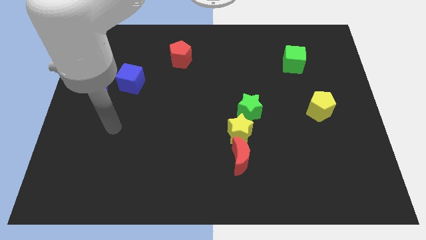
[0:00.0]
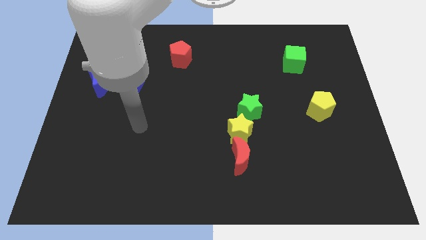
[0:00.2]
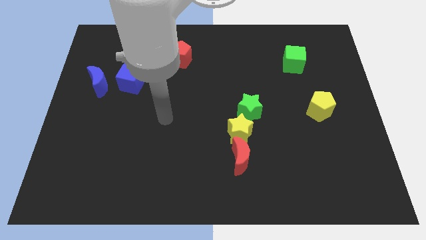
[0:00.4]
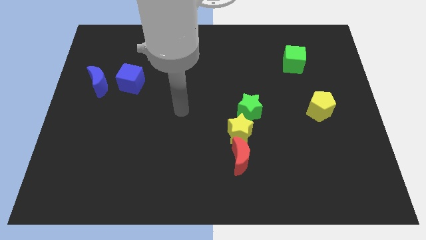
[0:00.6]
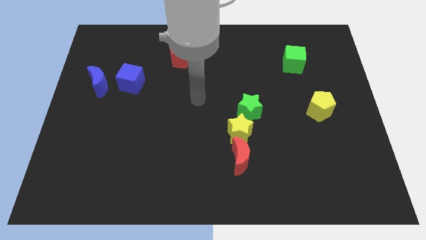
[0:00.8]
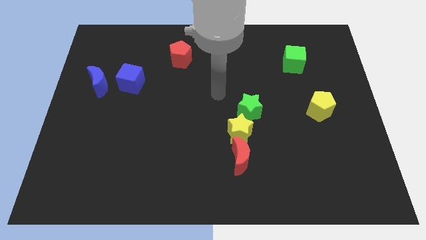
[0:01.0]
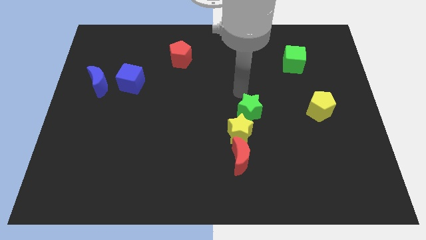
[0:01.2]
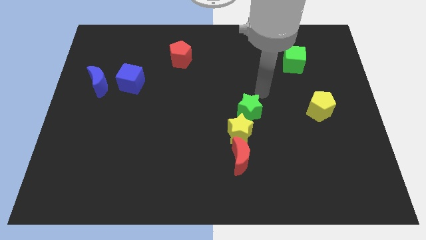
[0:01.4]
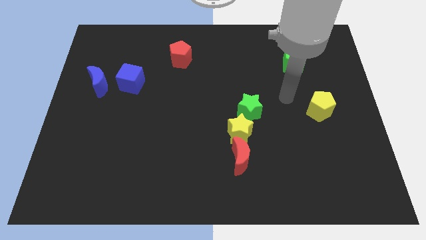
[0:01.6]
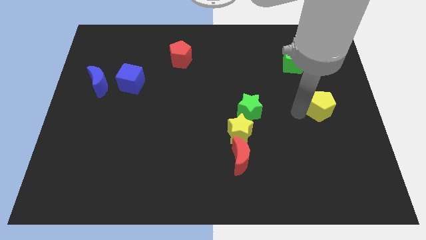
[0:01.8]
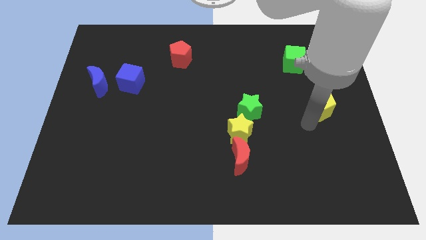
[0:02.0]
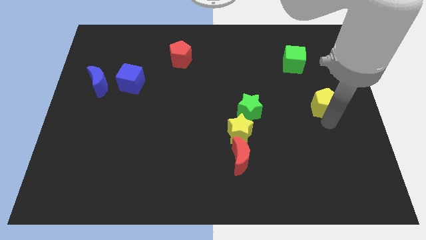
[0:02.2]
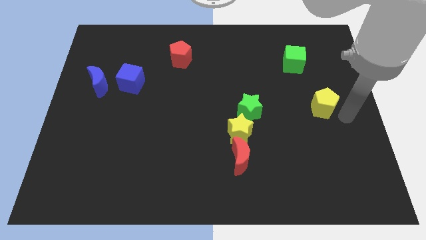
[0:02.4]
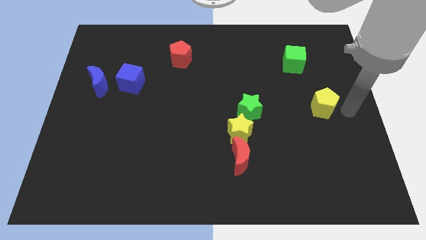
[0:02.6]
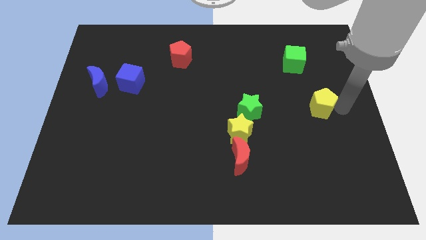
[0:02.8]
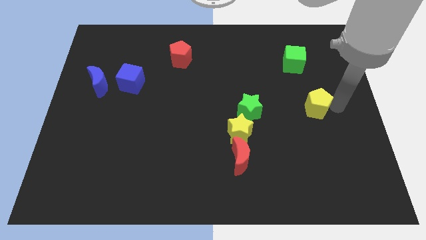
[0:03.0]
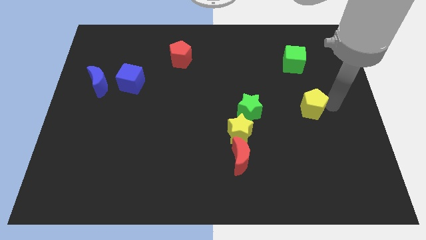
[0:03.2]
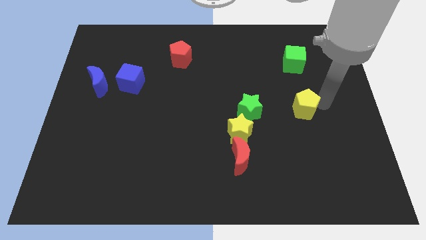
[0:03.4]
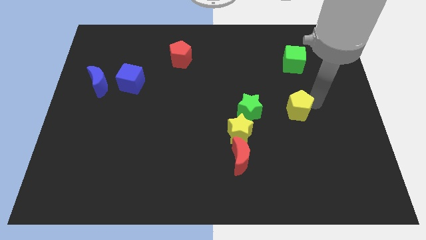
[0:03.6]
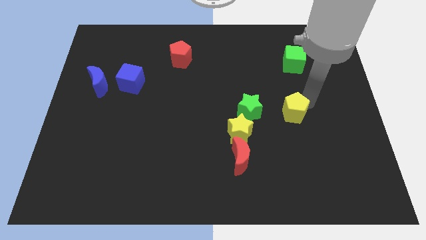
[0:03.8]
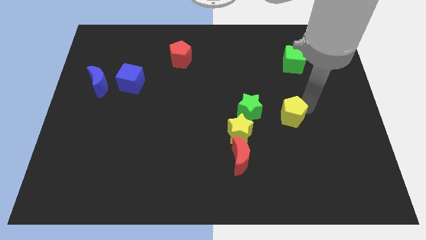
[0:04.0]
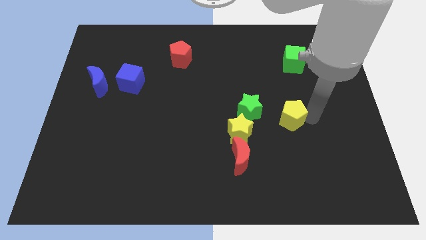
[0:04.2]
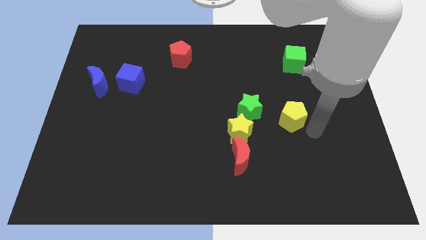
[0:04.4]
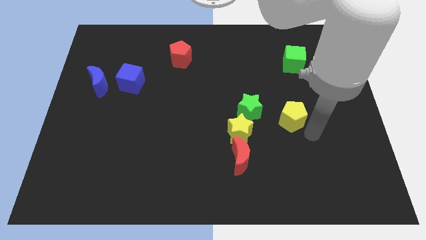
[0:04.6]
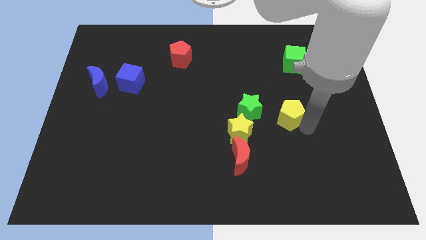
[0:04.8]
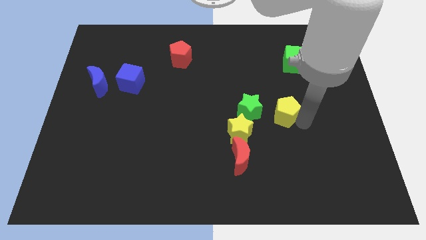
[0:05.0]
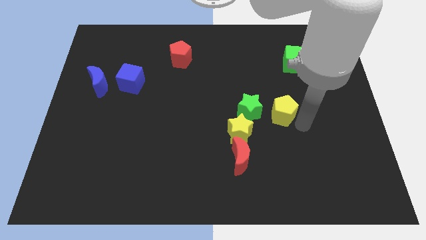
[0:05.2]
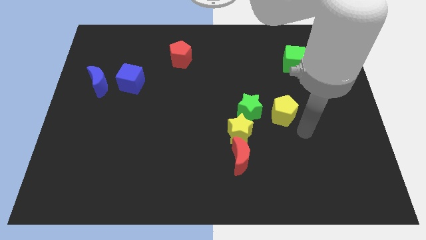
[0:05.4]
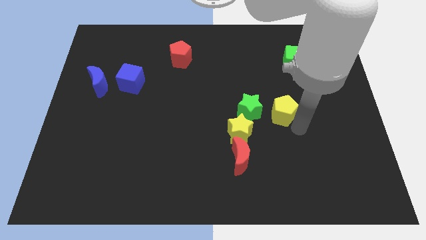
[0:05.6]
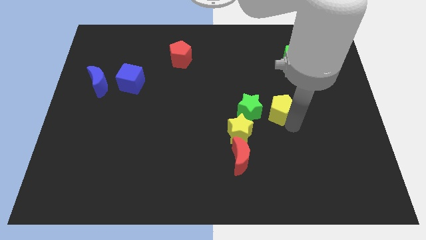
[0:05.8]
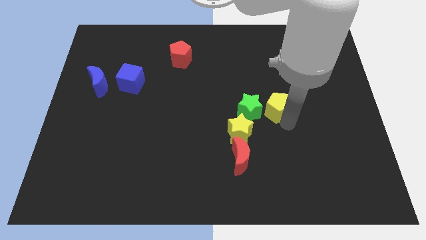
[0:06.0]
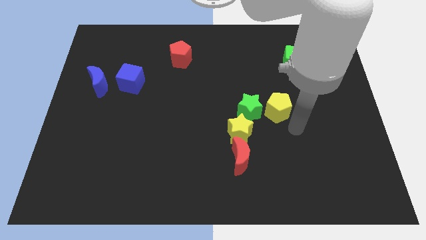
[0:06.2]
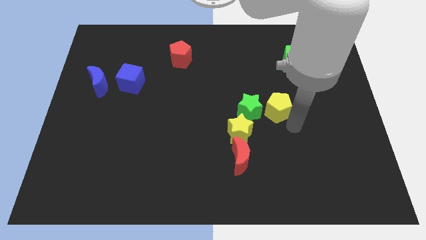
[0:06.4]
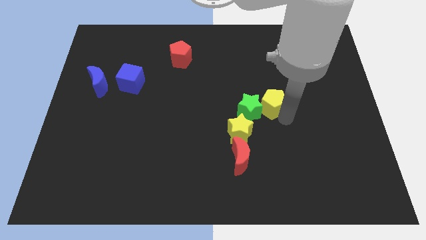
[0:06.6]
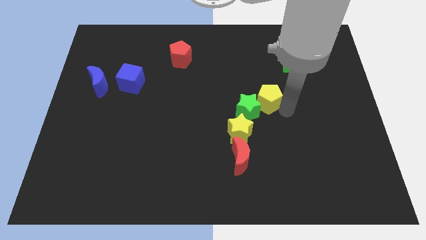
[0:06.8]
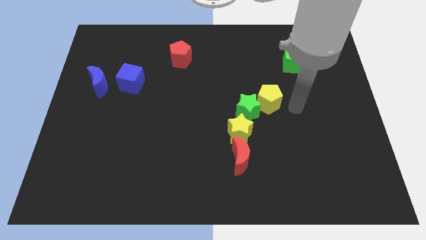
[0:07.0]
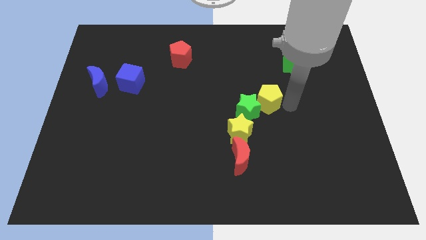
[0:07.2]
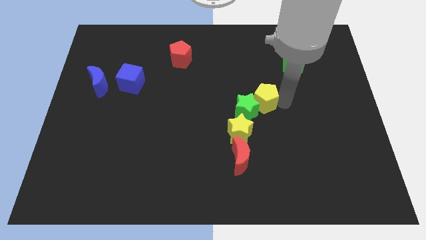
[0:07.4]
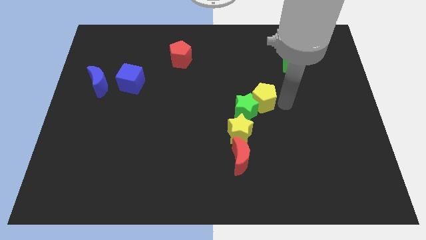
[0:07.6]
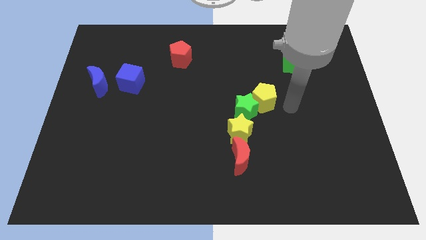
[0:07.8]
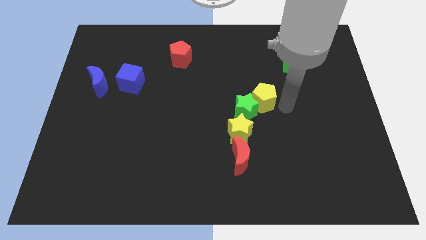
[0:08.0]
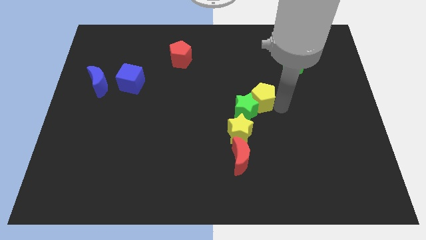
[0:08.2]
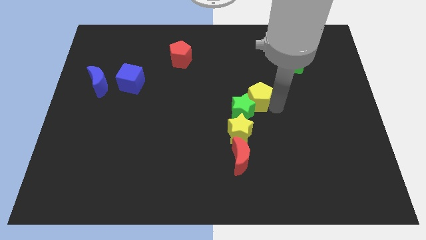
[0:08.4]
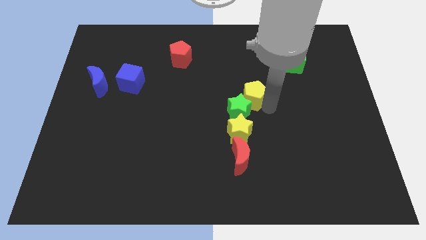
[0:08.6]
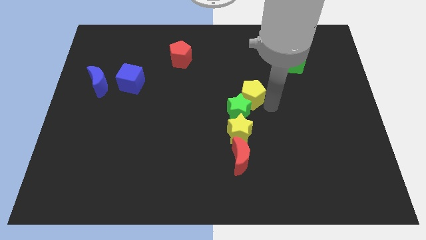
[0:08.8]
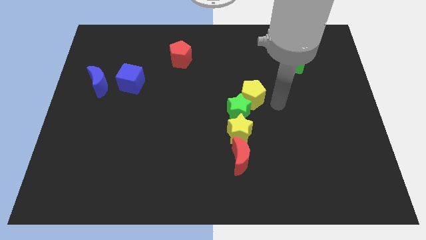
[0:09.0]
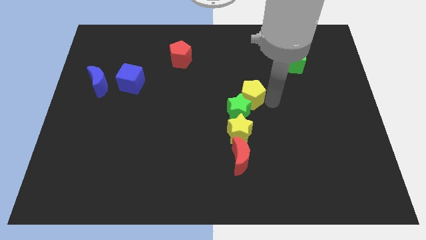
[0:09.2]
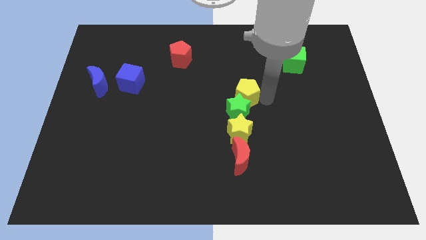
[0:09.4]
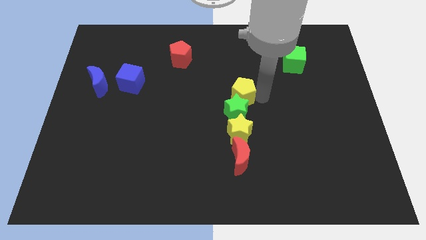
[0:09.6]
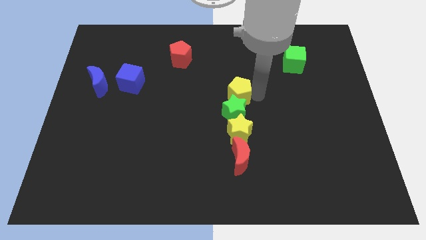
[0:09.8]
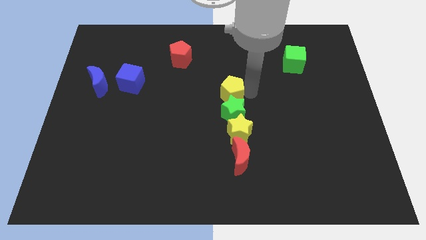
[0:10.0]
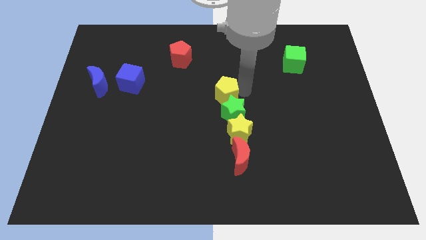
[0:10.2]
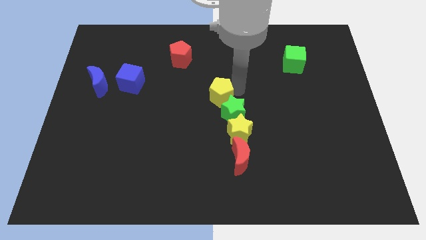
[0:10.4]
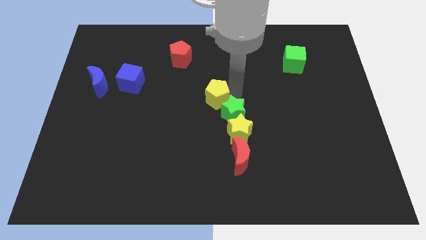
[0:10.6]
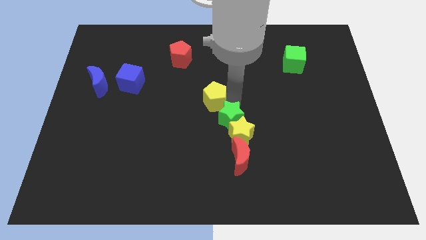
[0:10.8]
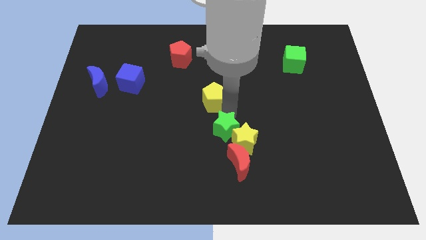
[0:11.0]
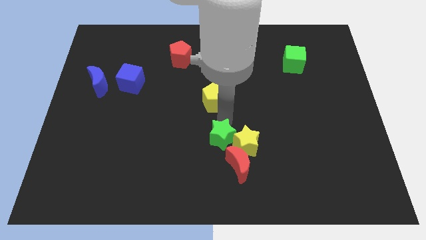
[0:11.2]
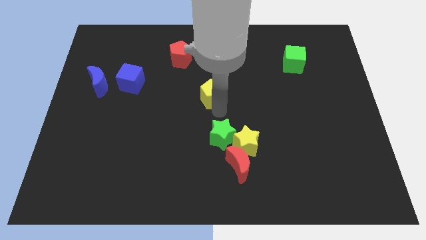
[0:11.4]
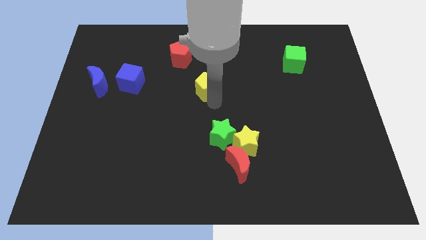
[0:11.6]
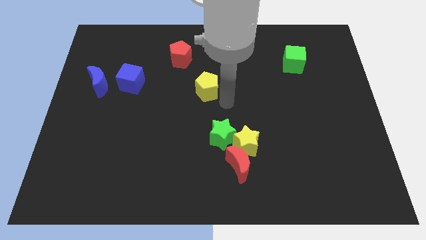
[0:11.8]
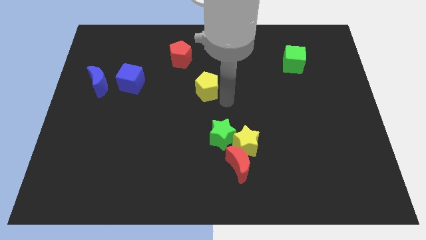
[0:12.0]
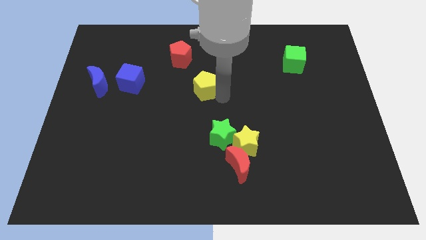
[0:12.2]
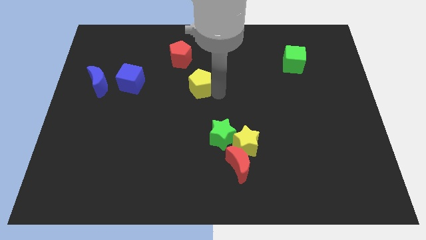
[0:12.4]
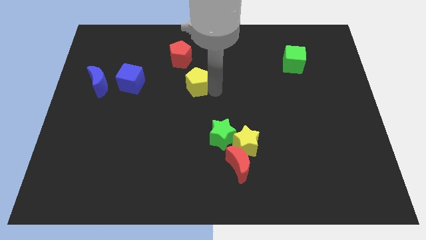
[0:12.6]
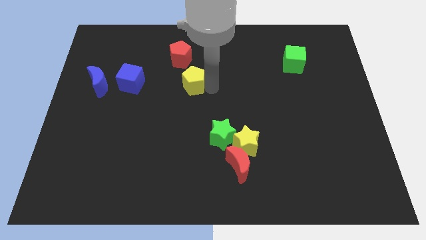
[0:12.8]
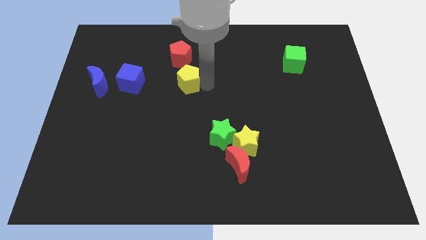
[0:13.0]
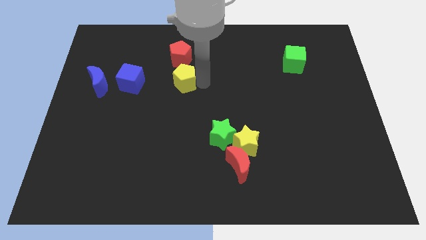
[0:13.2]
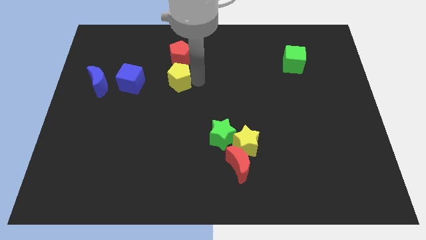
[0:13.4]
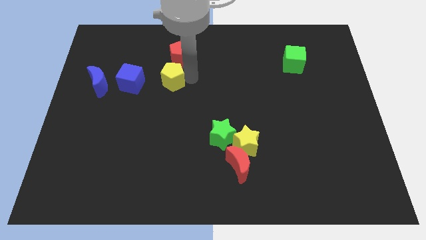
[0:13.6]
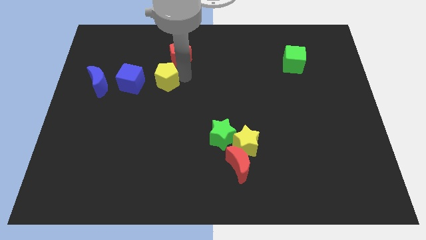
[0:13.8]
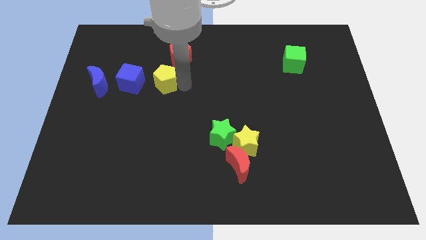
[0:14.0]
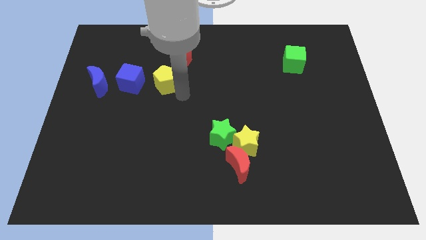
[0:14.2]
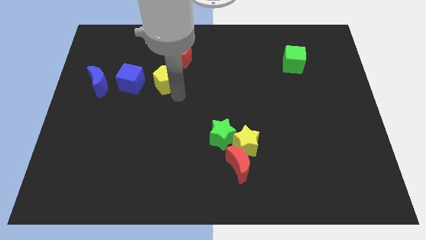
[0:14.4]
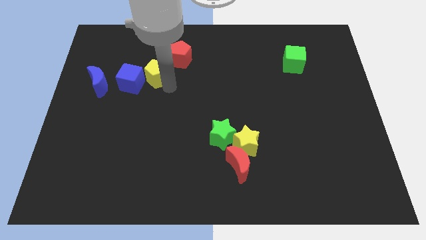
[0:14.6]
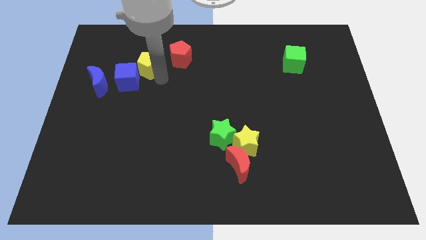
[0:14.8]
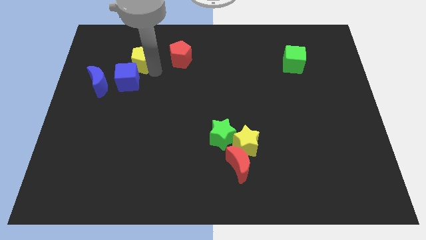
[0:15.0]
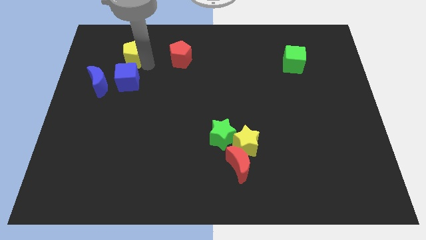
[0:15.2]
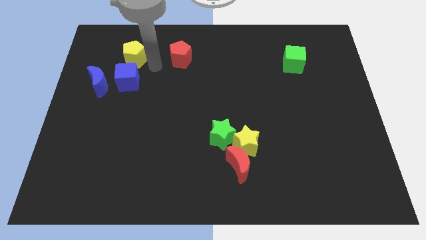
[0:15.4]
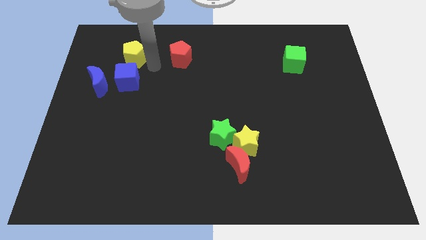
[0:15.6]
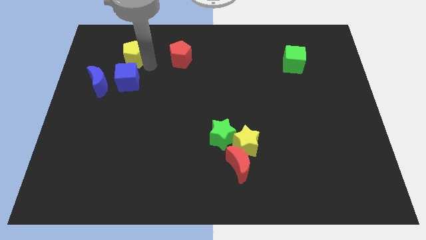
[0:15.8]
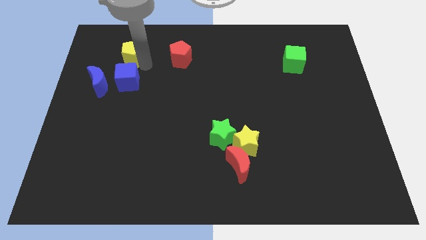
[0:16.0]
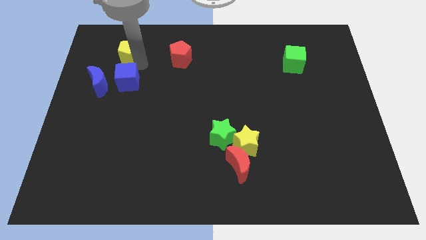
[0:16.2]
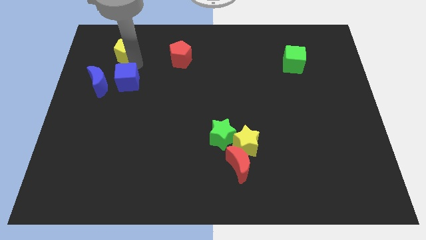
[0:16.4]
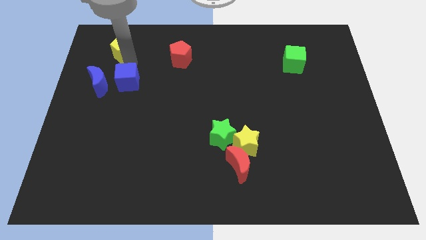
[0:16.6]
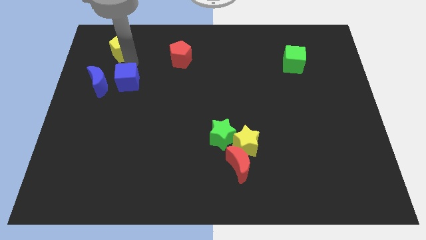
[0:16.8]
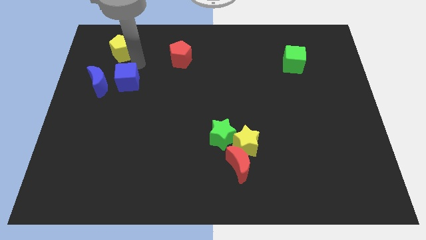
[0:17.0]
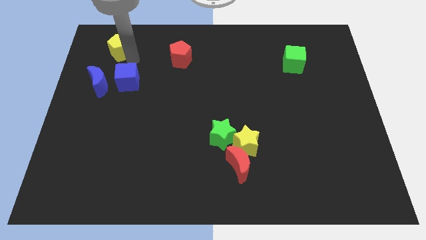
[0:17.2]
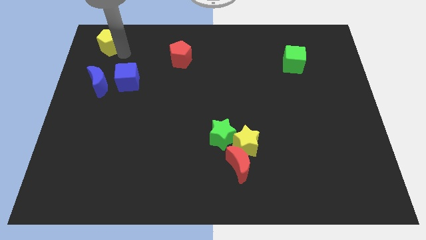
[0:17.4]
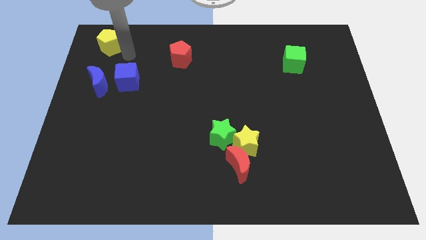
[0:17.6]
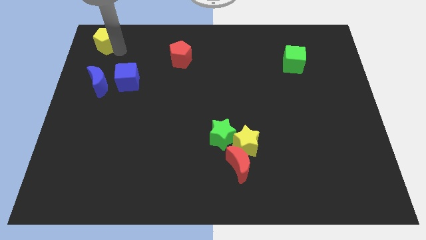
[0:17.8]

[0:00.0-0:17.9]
slide the yellow pentagon to the upper left corner
